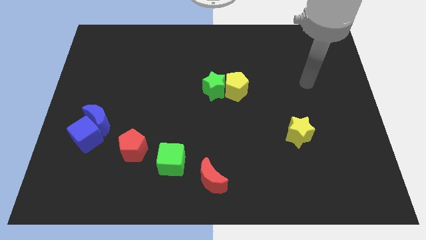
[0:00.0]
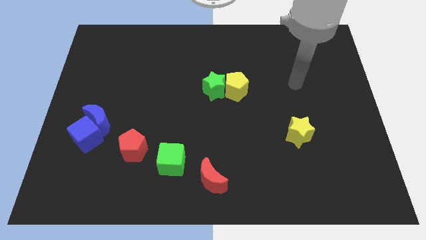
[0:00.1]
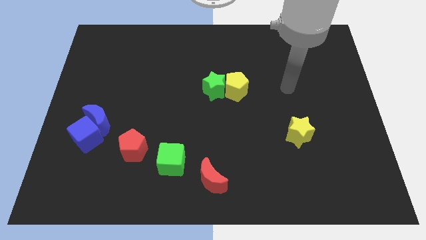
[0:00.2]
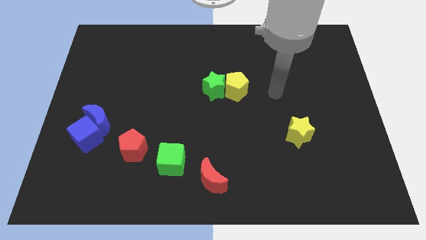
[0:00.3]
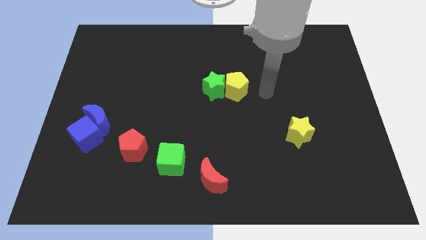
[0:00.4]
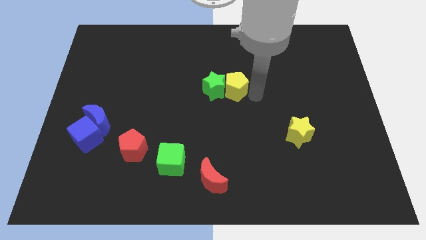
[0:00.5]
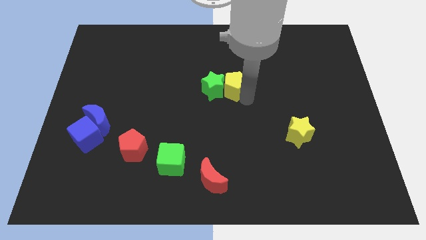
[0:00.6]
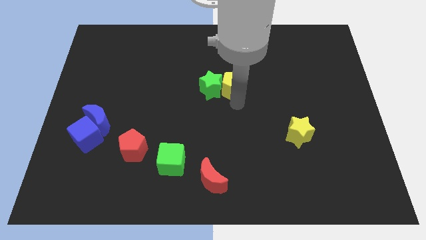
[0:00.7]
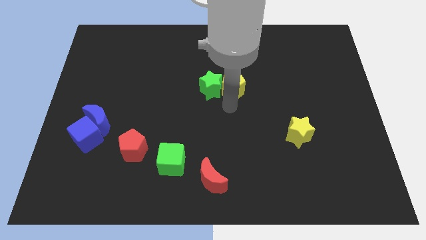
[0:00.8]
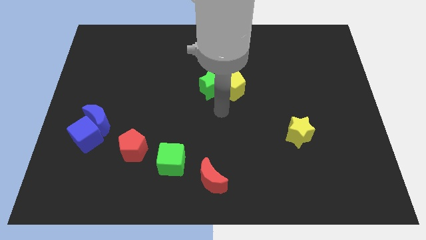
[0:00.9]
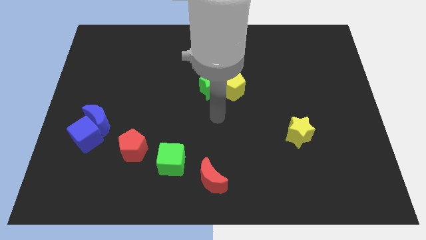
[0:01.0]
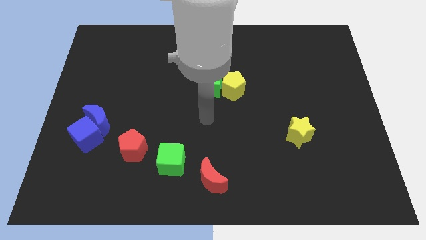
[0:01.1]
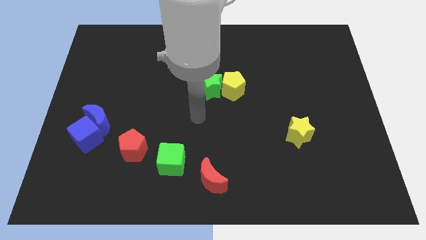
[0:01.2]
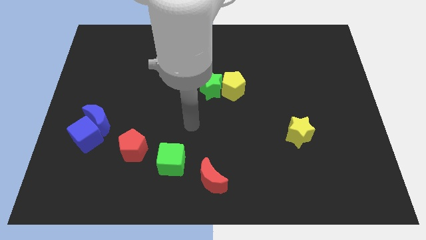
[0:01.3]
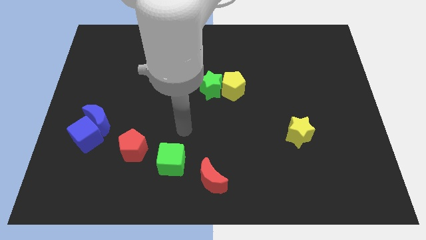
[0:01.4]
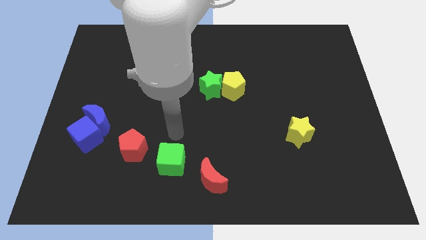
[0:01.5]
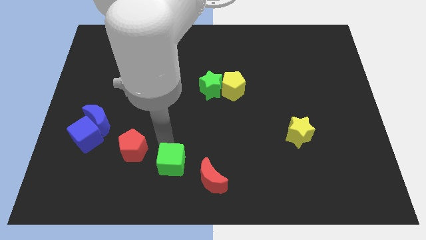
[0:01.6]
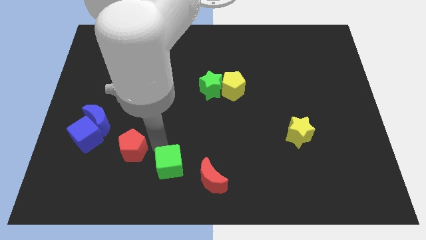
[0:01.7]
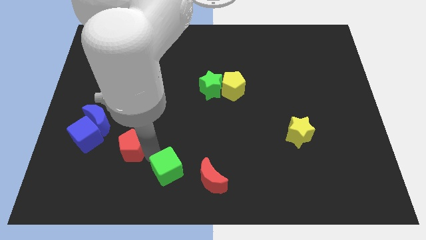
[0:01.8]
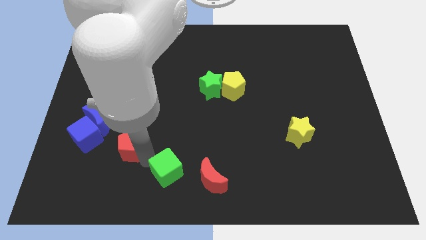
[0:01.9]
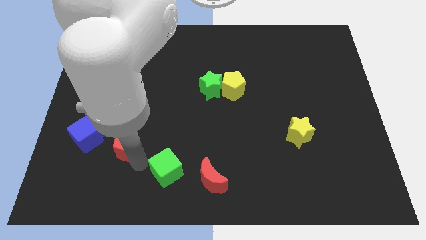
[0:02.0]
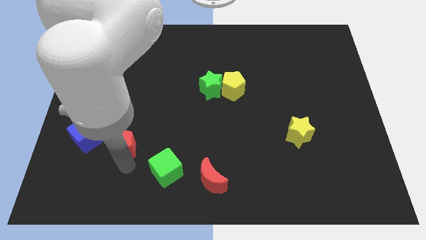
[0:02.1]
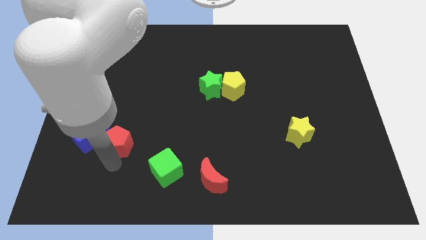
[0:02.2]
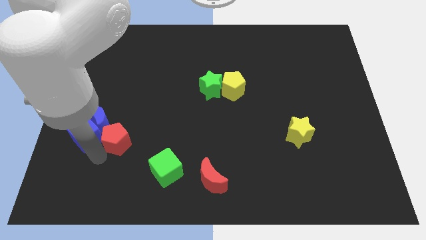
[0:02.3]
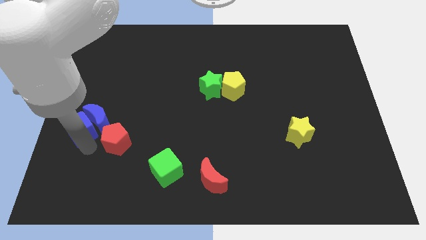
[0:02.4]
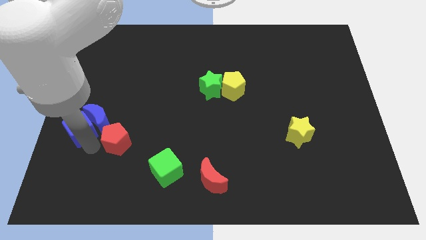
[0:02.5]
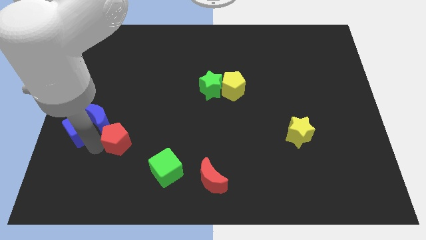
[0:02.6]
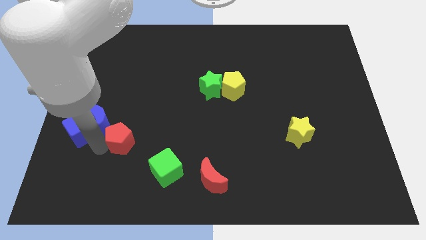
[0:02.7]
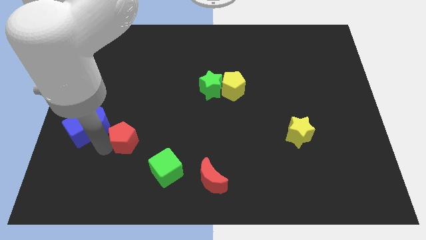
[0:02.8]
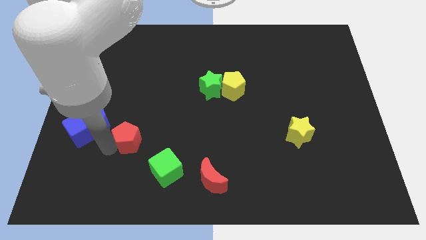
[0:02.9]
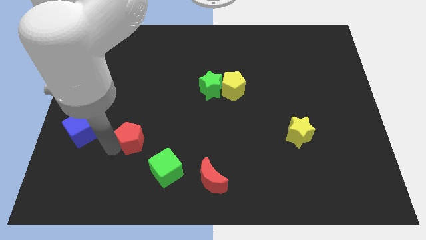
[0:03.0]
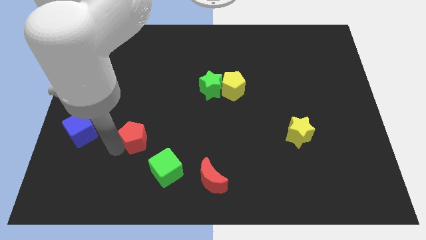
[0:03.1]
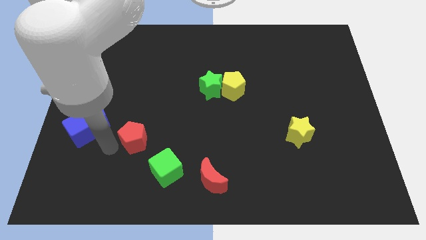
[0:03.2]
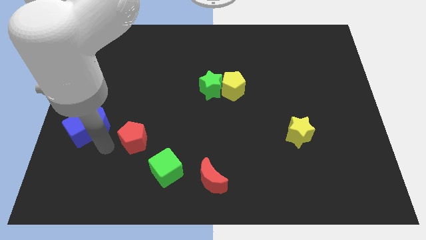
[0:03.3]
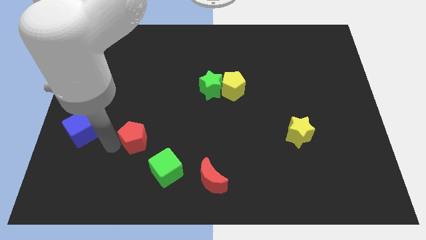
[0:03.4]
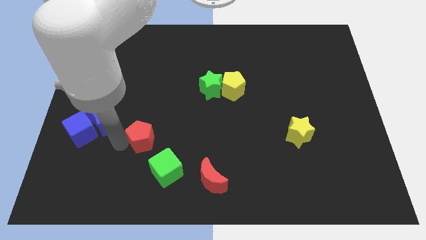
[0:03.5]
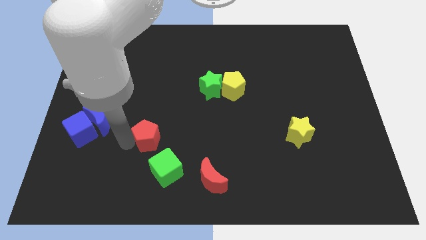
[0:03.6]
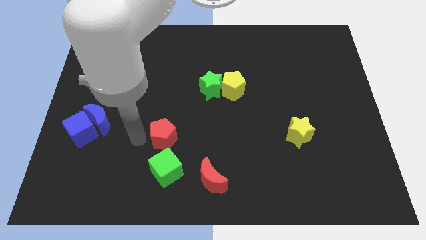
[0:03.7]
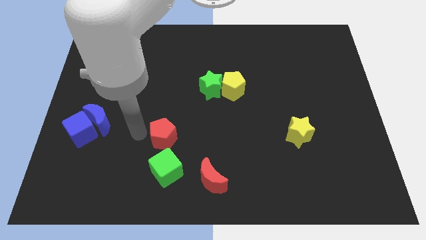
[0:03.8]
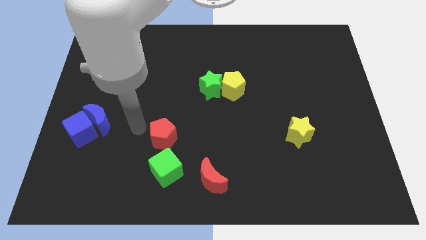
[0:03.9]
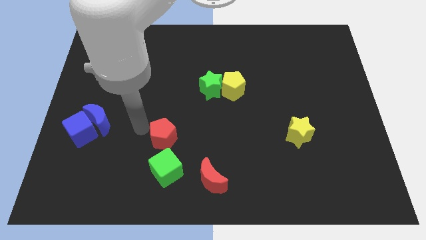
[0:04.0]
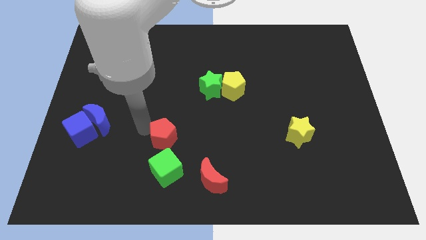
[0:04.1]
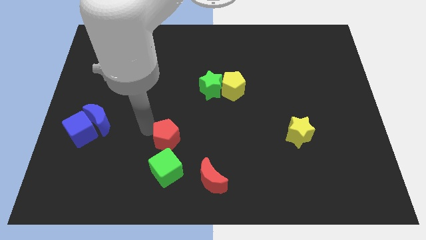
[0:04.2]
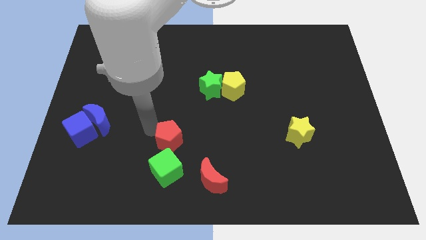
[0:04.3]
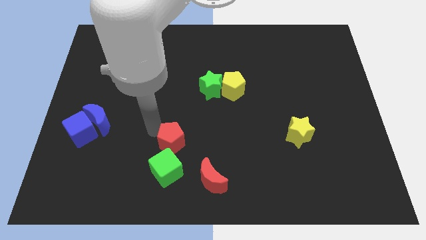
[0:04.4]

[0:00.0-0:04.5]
slide the red pentagon to the top right side of the green cube

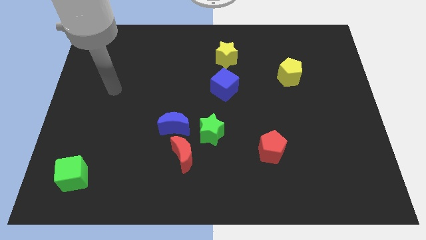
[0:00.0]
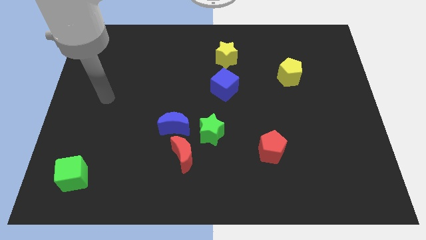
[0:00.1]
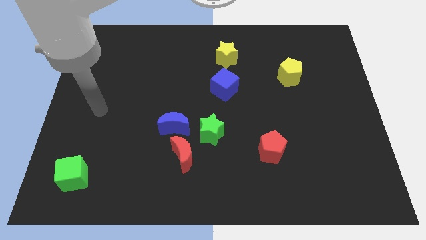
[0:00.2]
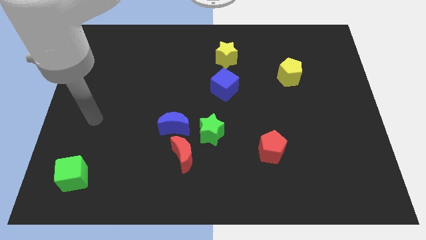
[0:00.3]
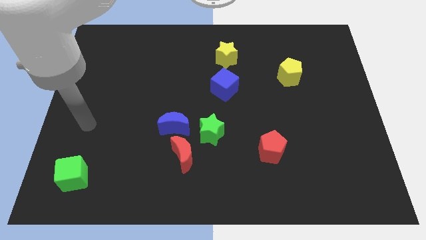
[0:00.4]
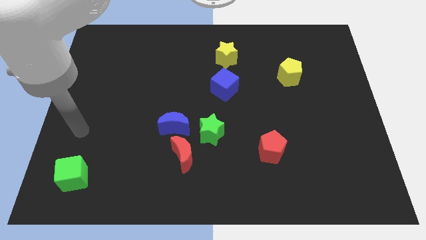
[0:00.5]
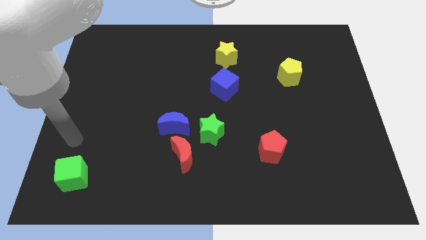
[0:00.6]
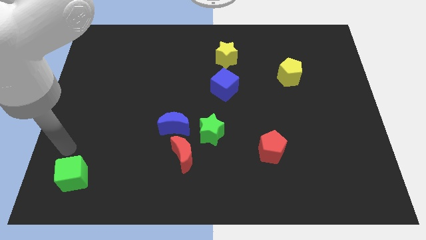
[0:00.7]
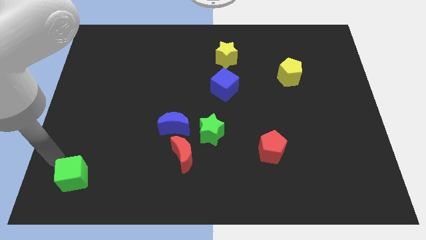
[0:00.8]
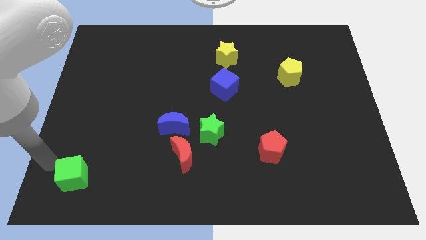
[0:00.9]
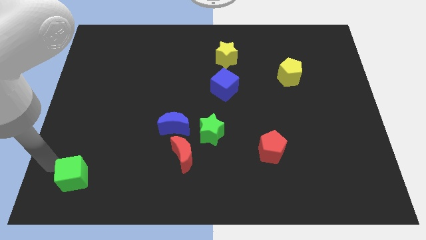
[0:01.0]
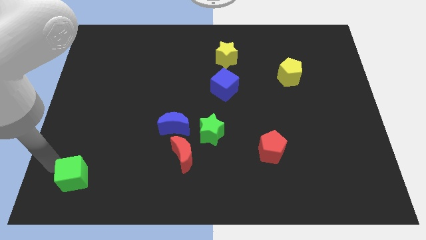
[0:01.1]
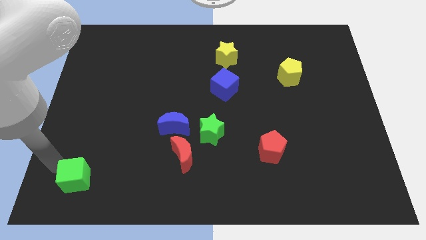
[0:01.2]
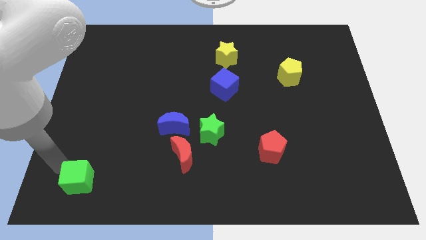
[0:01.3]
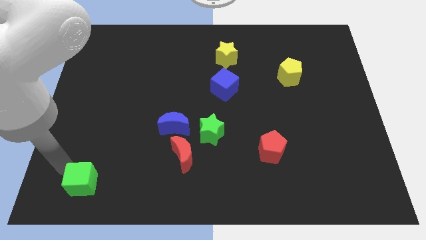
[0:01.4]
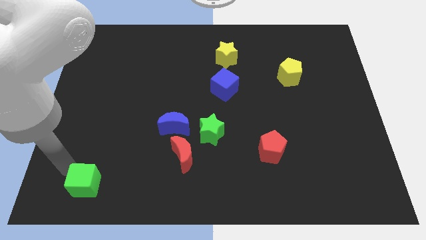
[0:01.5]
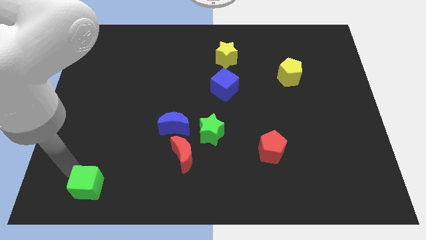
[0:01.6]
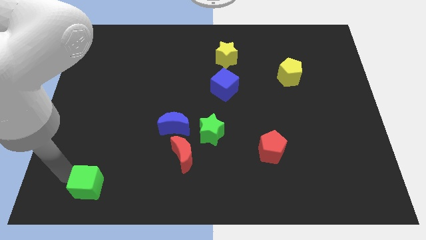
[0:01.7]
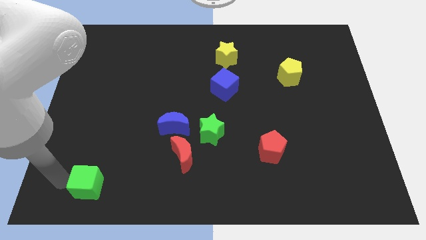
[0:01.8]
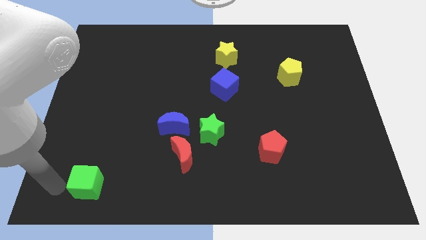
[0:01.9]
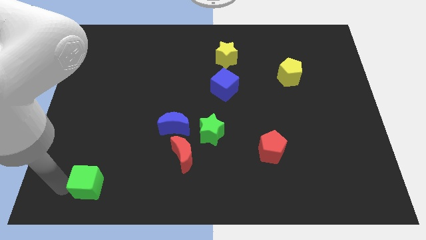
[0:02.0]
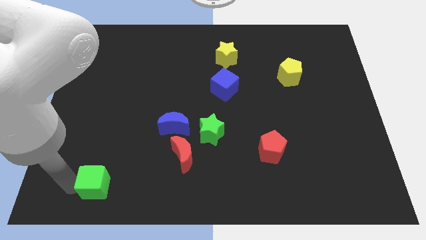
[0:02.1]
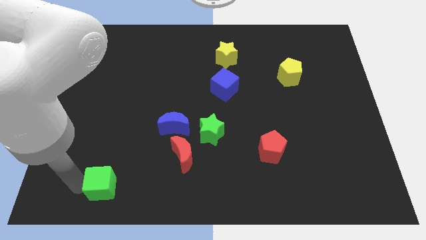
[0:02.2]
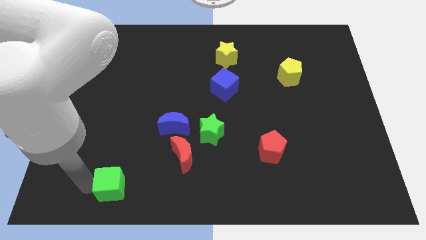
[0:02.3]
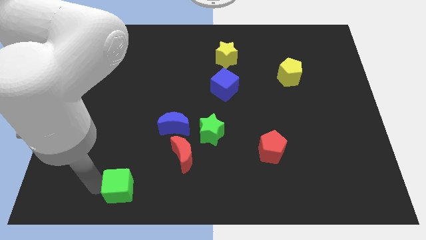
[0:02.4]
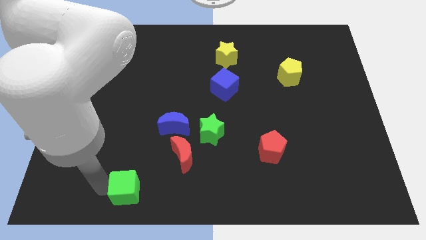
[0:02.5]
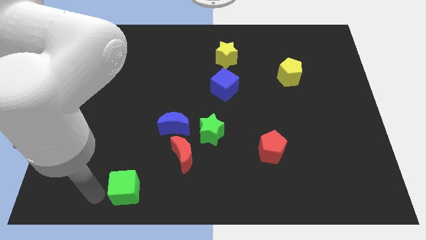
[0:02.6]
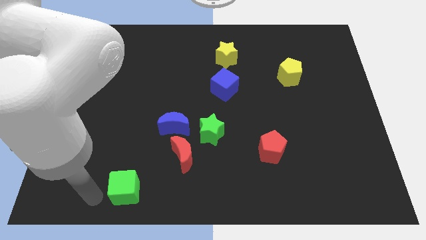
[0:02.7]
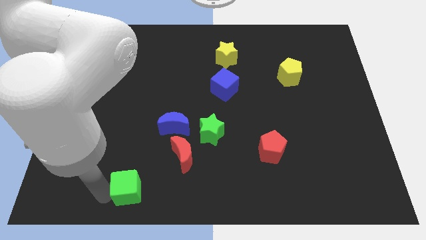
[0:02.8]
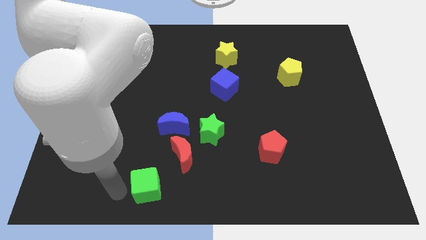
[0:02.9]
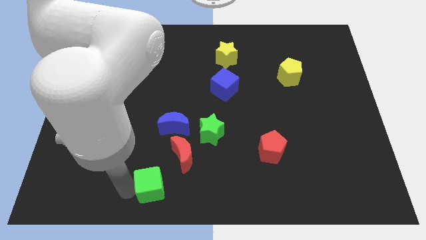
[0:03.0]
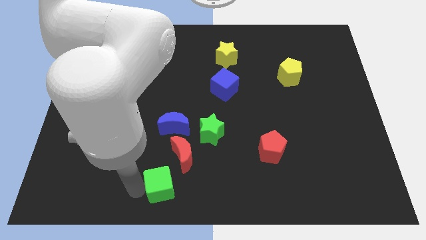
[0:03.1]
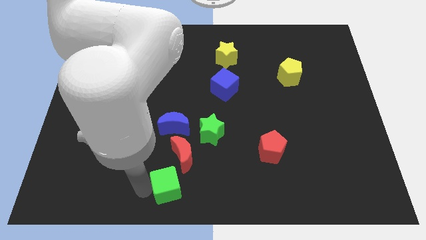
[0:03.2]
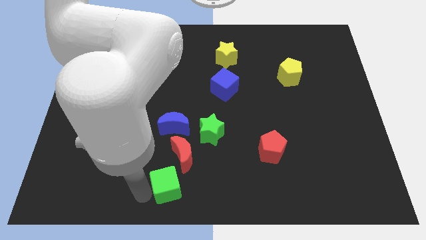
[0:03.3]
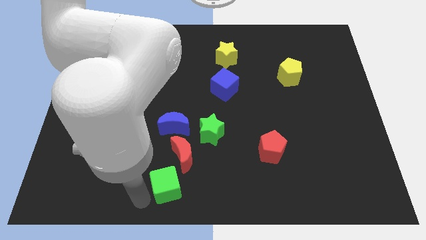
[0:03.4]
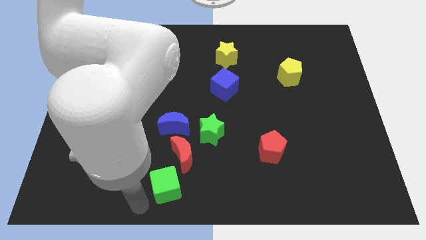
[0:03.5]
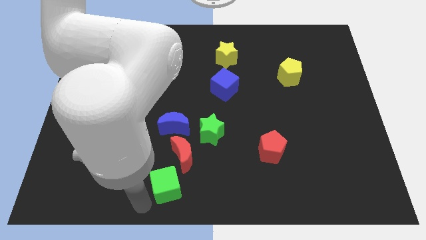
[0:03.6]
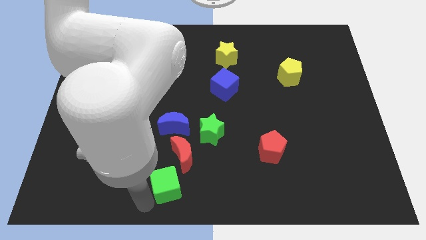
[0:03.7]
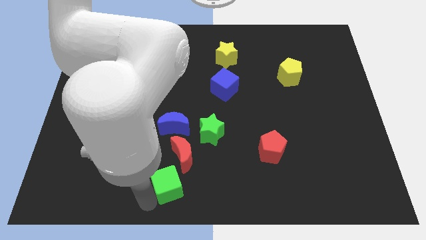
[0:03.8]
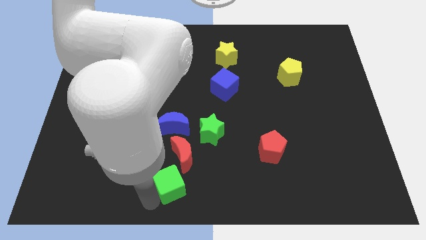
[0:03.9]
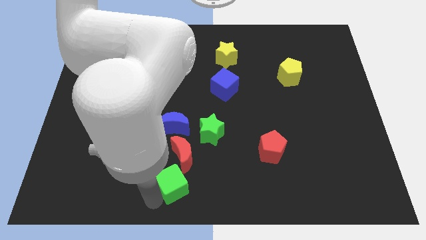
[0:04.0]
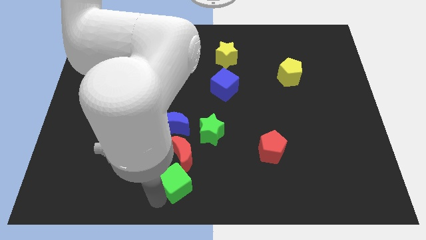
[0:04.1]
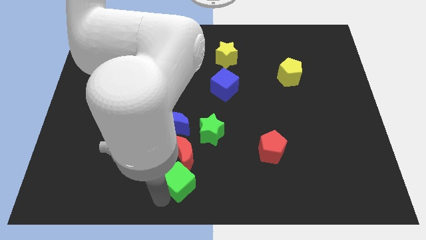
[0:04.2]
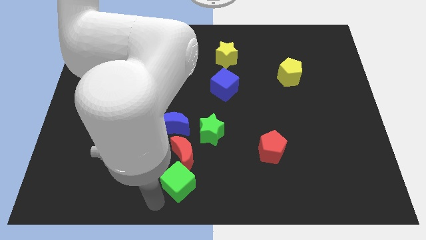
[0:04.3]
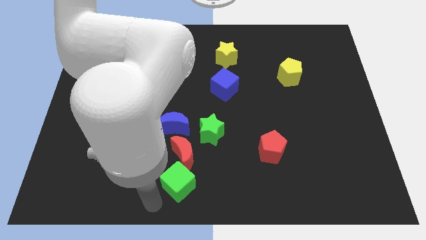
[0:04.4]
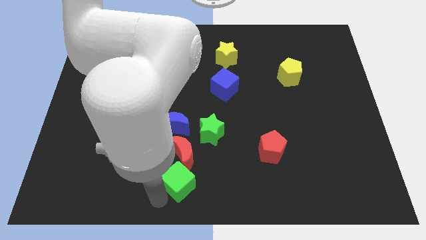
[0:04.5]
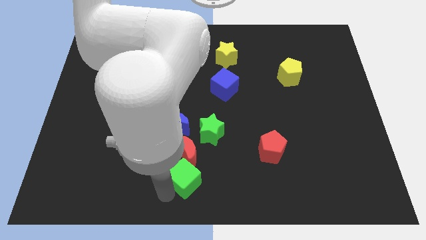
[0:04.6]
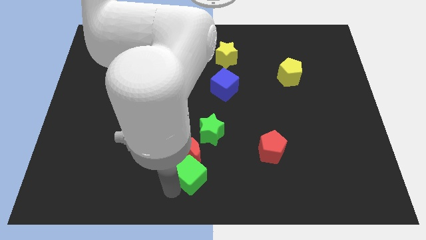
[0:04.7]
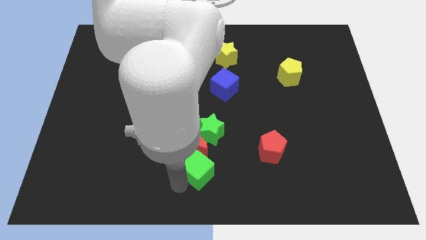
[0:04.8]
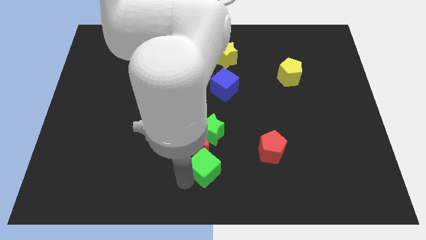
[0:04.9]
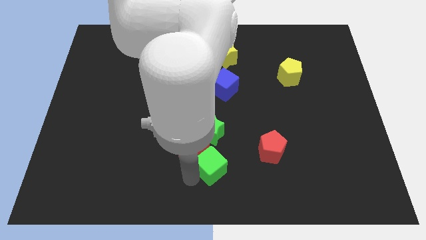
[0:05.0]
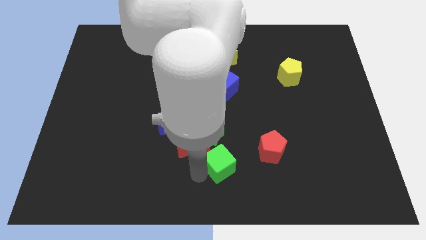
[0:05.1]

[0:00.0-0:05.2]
push the green cube to the bottom right side of the green star
